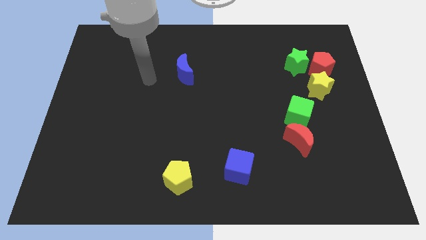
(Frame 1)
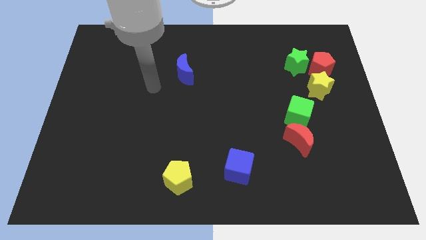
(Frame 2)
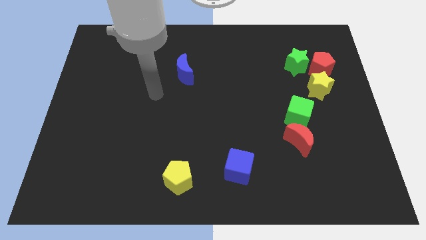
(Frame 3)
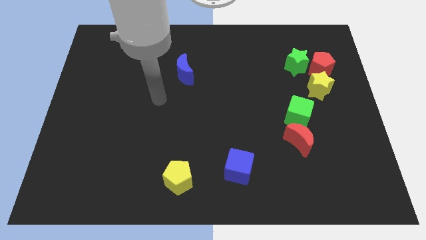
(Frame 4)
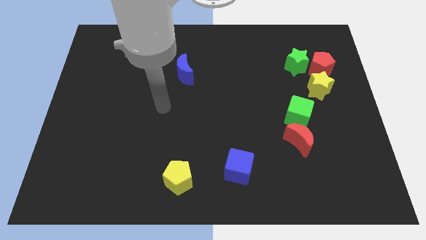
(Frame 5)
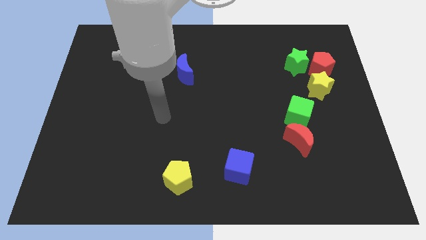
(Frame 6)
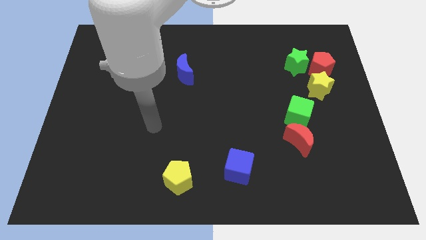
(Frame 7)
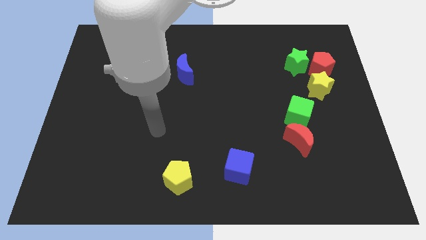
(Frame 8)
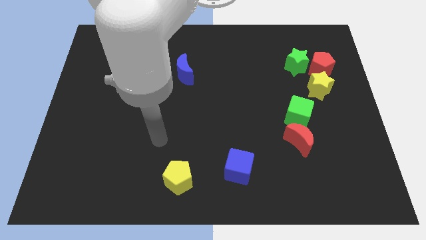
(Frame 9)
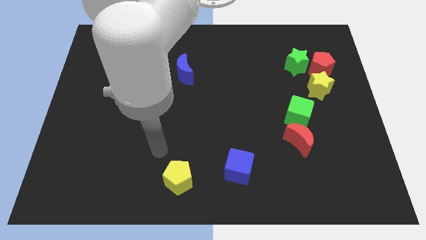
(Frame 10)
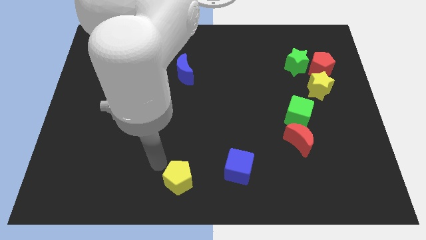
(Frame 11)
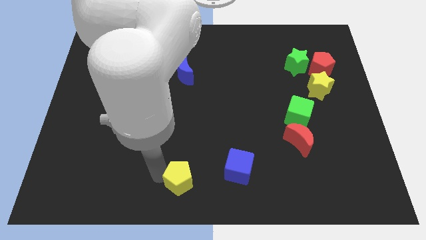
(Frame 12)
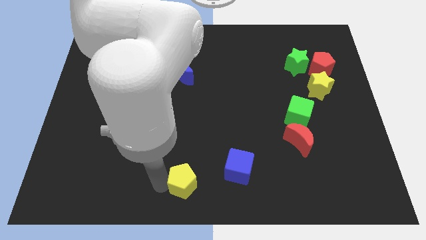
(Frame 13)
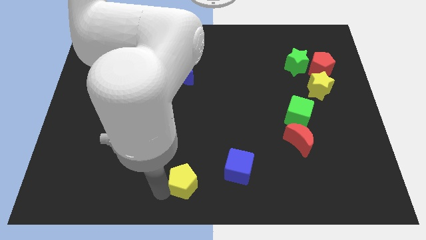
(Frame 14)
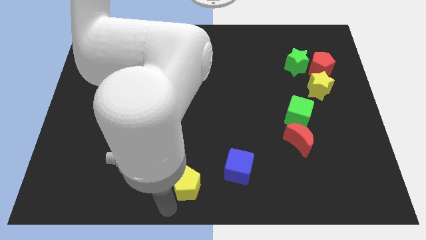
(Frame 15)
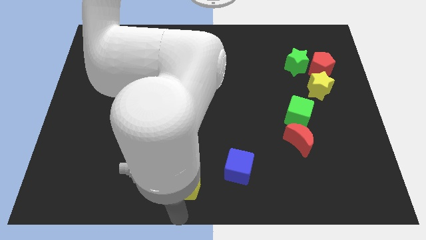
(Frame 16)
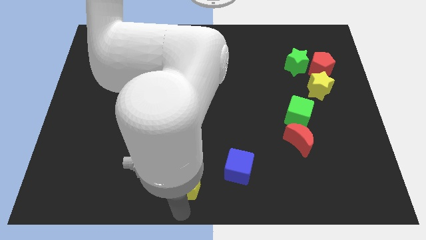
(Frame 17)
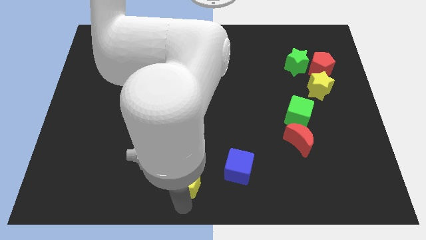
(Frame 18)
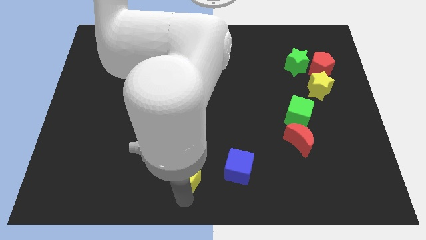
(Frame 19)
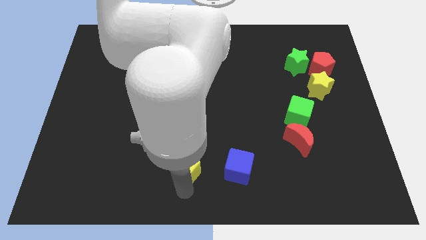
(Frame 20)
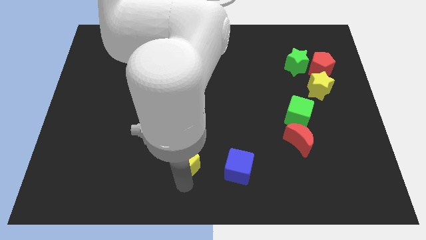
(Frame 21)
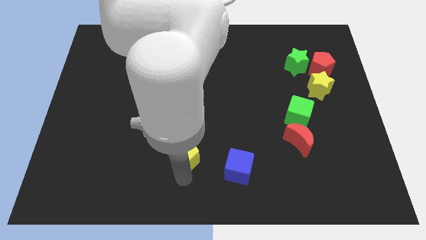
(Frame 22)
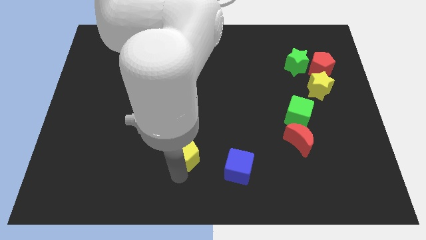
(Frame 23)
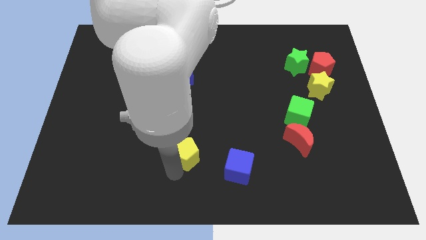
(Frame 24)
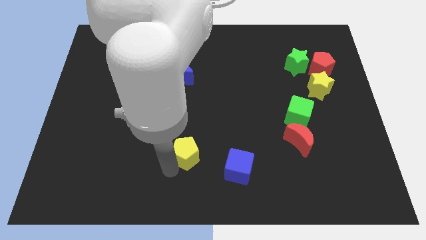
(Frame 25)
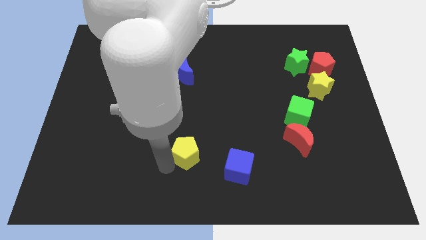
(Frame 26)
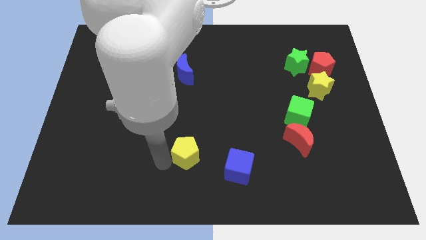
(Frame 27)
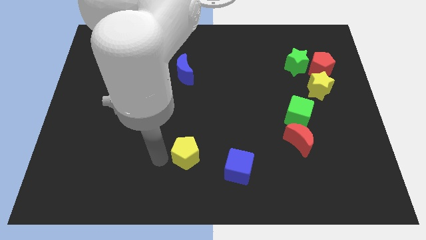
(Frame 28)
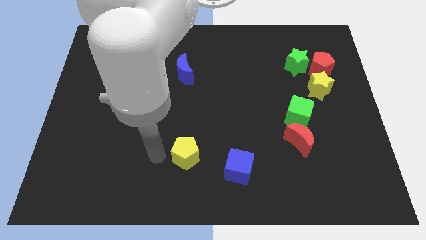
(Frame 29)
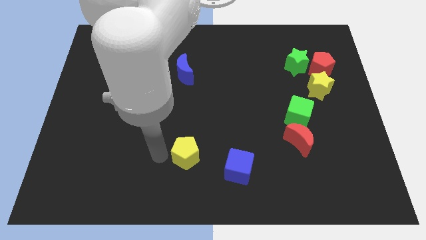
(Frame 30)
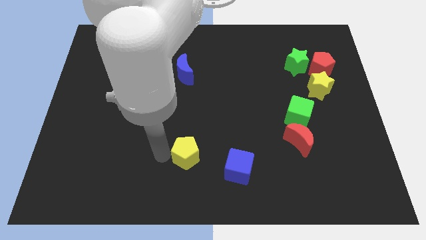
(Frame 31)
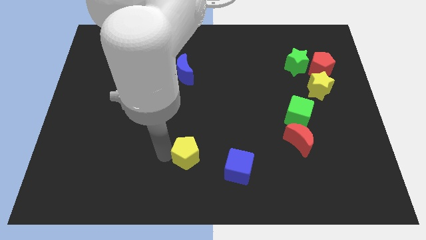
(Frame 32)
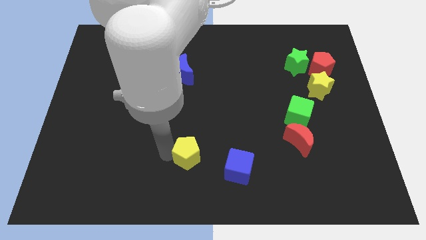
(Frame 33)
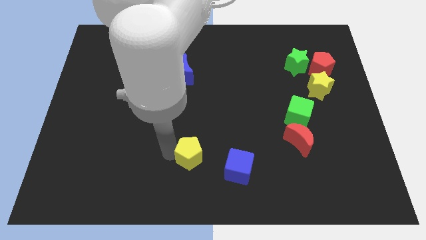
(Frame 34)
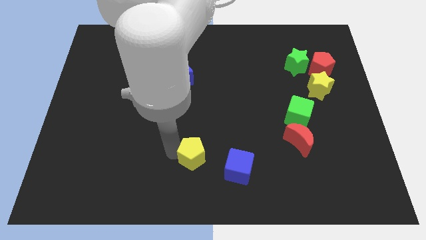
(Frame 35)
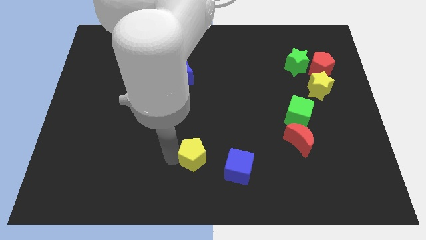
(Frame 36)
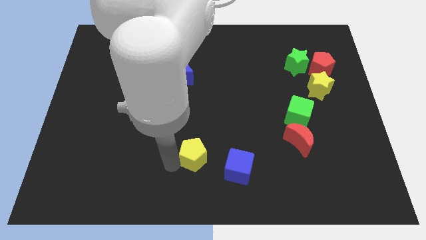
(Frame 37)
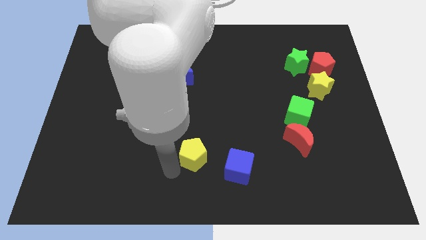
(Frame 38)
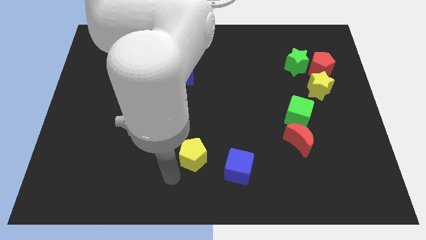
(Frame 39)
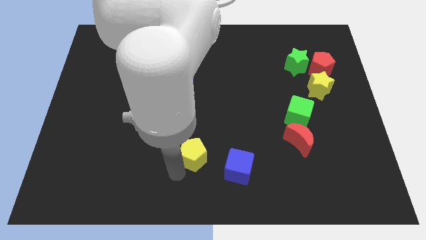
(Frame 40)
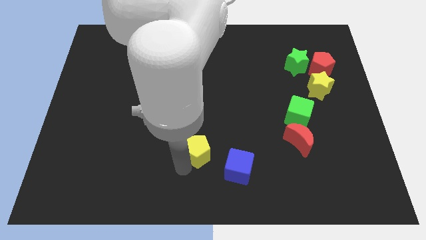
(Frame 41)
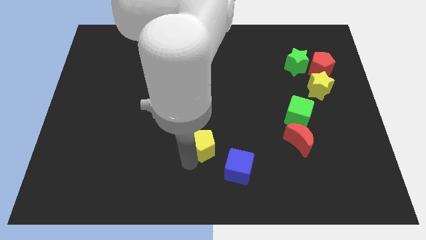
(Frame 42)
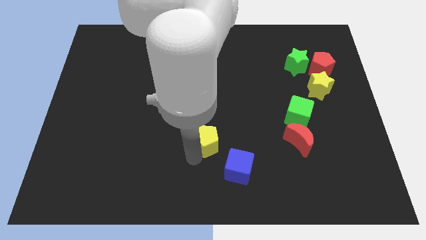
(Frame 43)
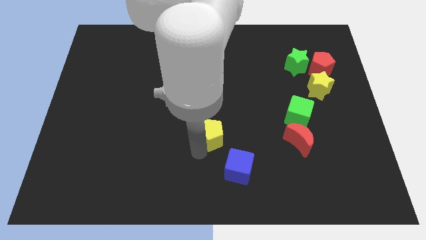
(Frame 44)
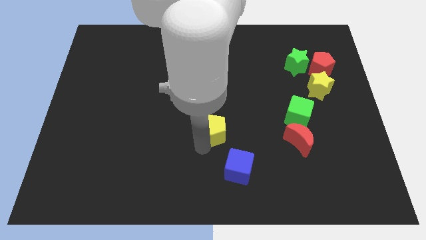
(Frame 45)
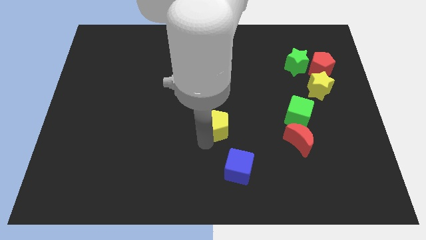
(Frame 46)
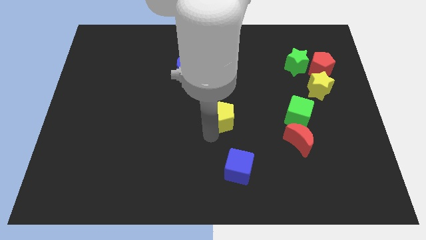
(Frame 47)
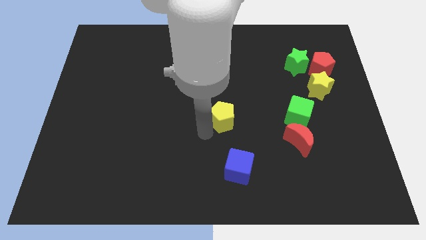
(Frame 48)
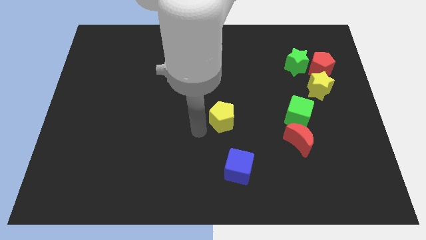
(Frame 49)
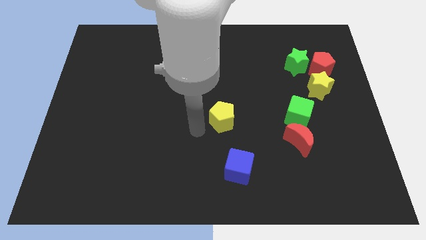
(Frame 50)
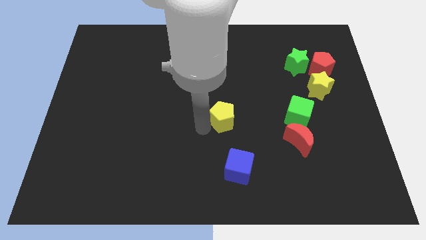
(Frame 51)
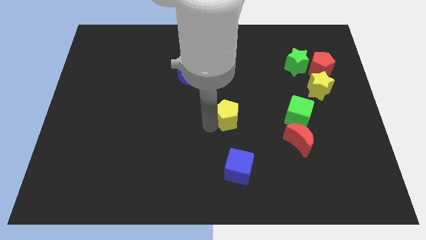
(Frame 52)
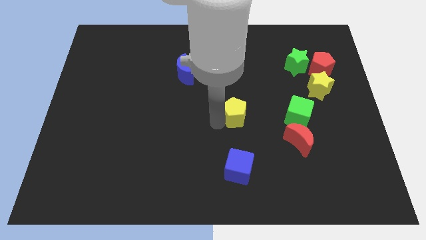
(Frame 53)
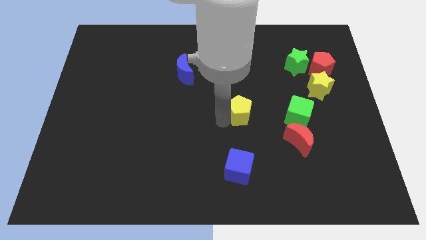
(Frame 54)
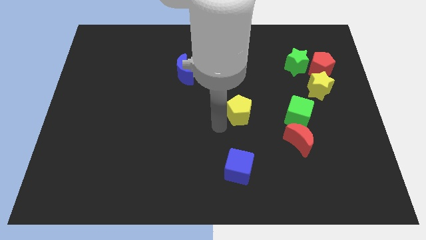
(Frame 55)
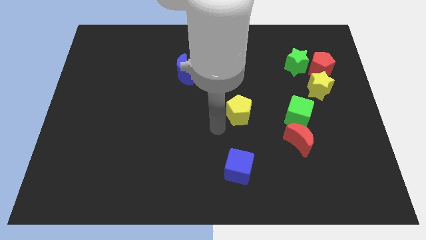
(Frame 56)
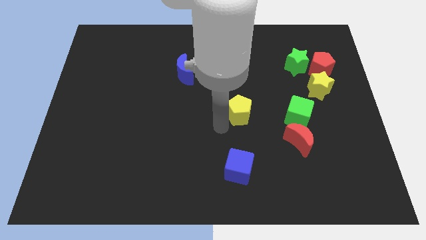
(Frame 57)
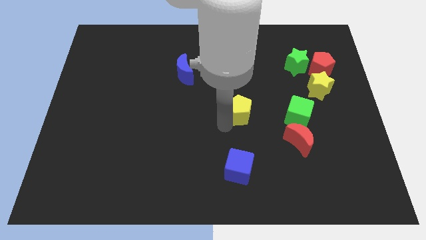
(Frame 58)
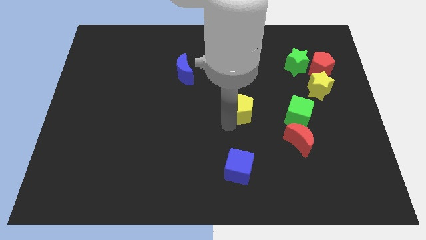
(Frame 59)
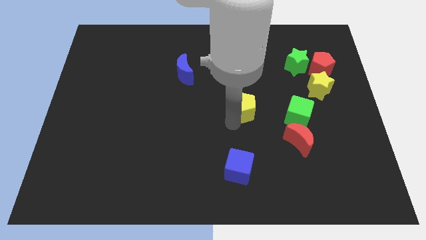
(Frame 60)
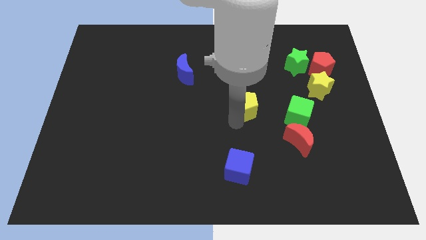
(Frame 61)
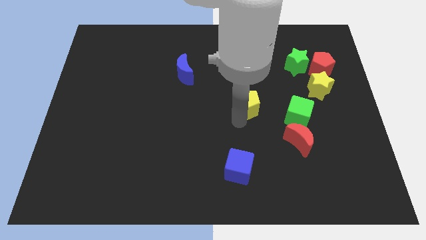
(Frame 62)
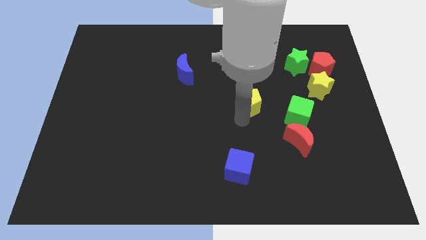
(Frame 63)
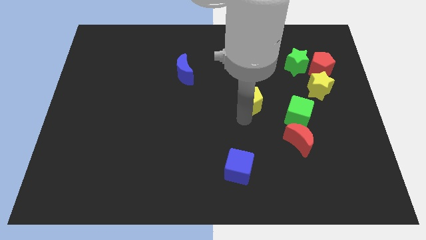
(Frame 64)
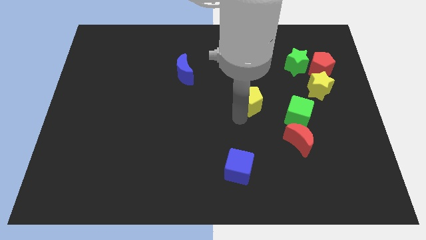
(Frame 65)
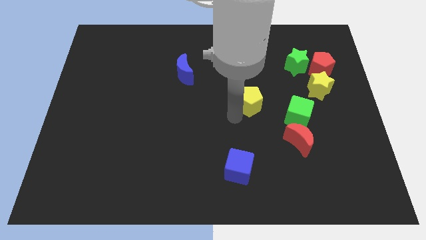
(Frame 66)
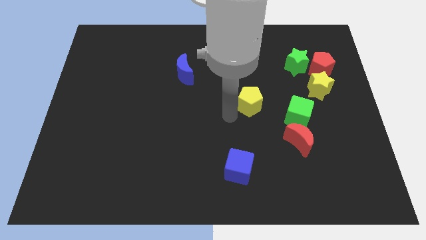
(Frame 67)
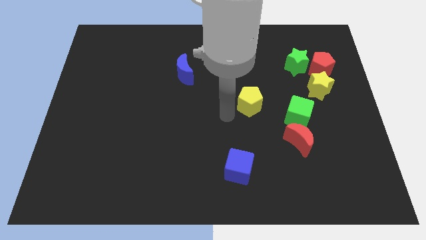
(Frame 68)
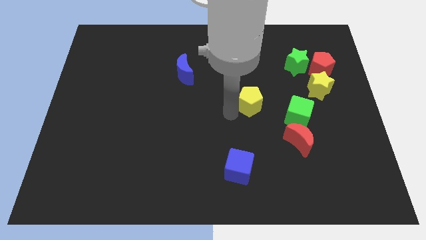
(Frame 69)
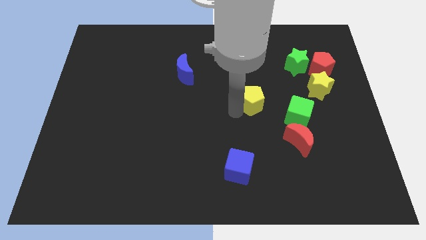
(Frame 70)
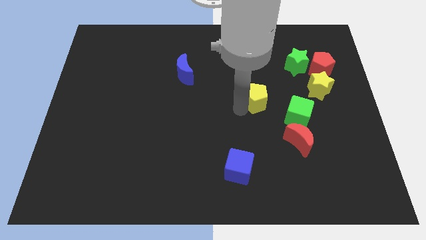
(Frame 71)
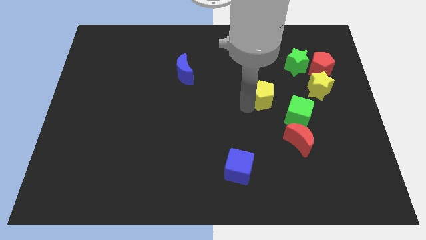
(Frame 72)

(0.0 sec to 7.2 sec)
move the yellow pentagon to the left side of the yellow star
